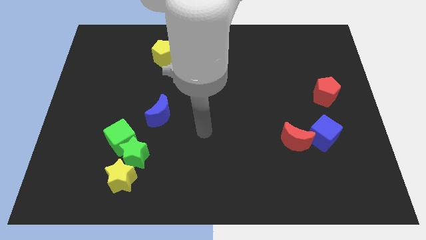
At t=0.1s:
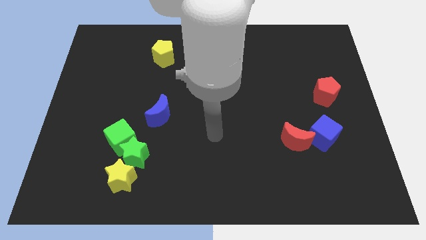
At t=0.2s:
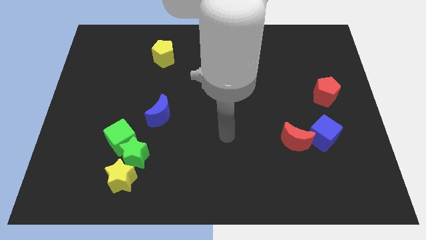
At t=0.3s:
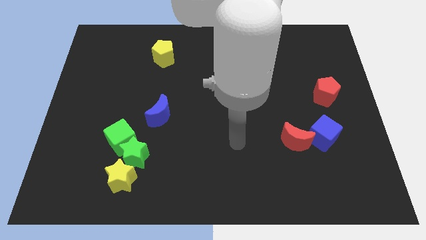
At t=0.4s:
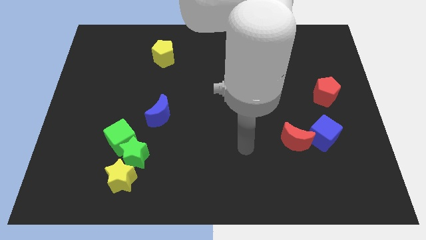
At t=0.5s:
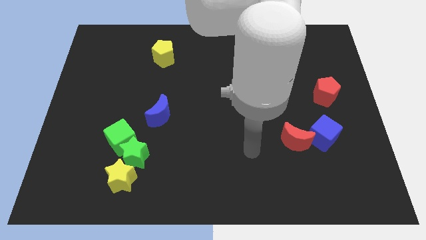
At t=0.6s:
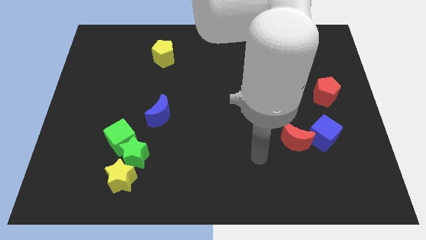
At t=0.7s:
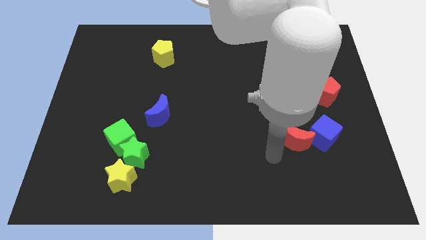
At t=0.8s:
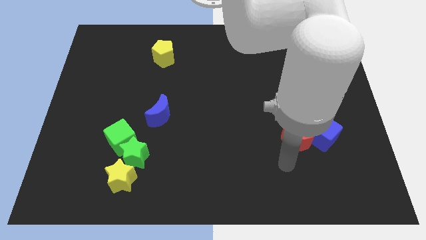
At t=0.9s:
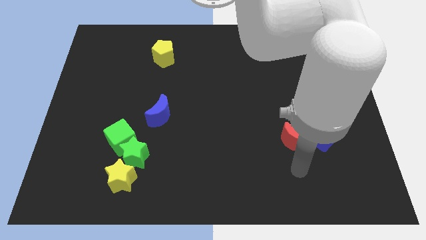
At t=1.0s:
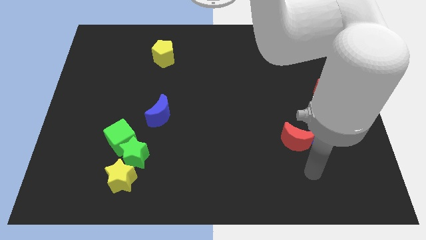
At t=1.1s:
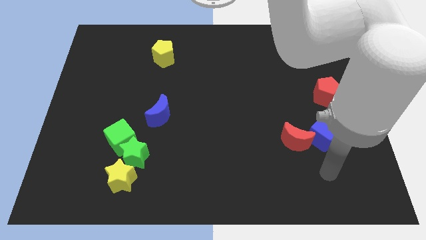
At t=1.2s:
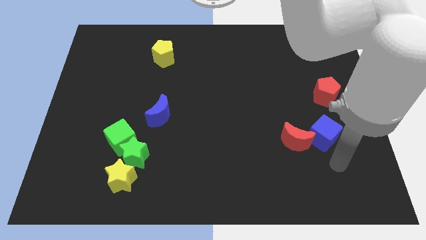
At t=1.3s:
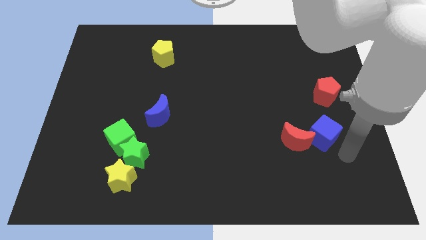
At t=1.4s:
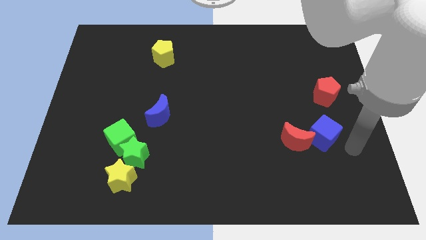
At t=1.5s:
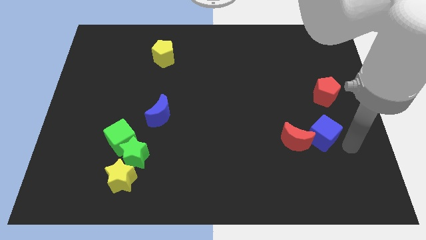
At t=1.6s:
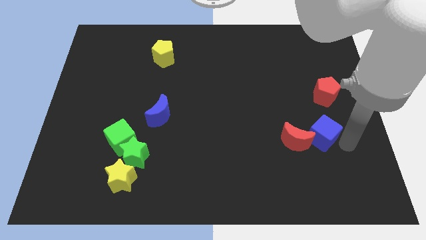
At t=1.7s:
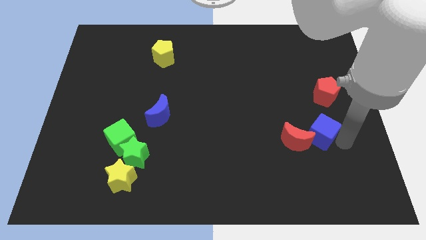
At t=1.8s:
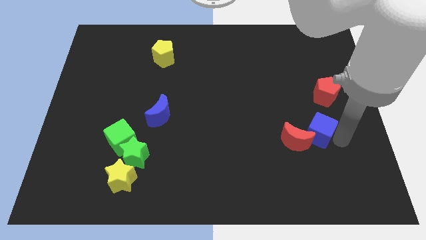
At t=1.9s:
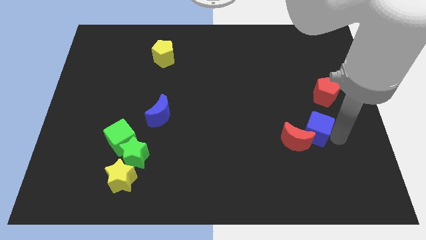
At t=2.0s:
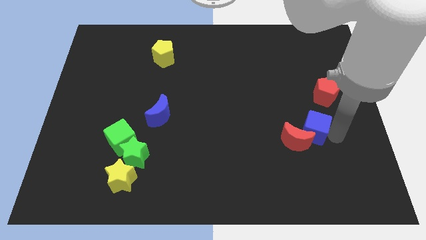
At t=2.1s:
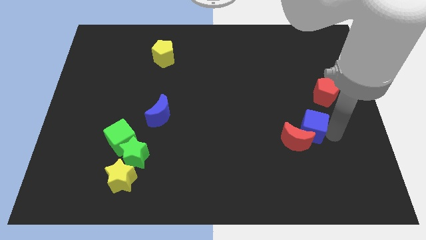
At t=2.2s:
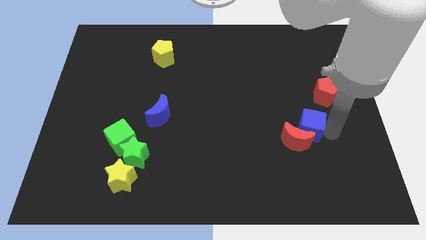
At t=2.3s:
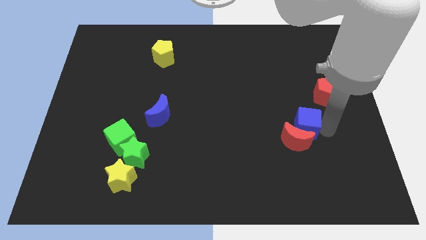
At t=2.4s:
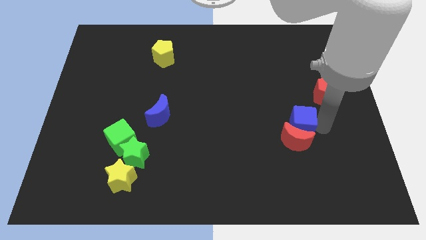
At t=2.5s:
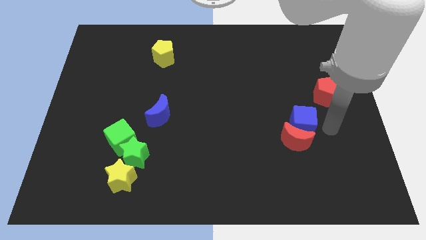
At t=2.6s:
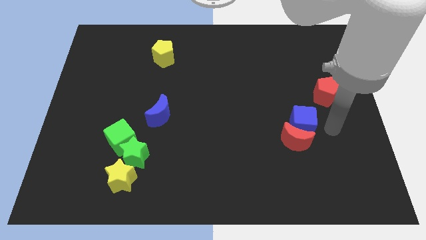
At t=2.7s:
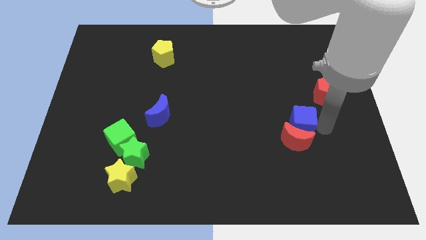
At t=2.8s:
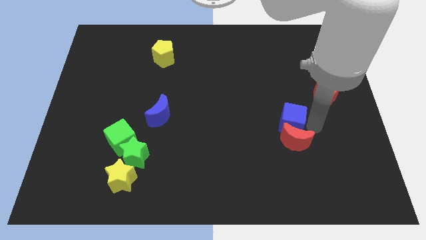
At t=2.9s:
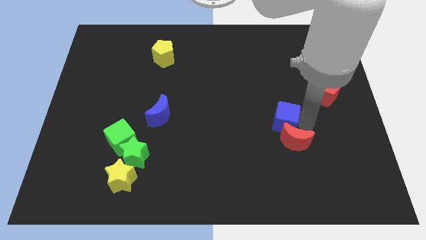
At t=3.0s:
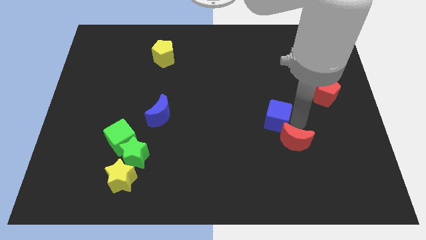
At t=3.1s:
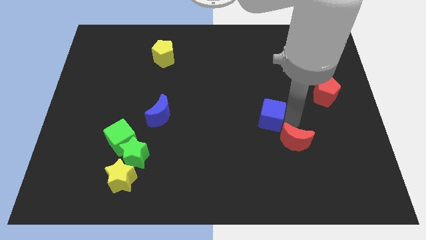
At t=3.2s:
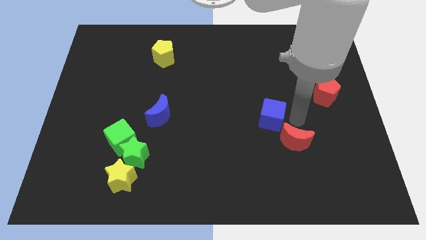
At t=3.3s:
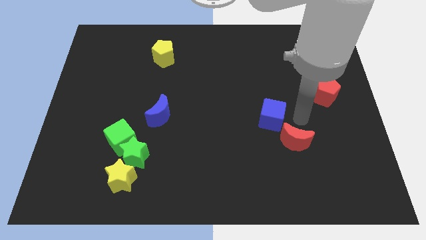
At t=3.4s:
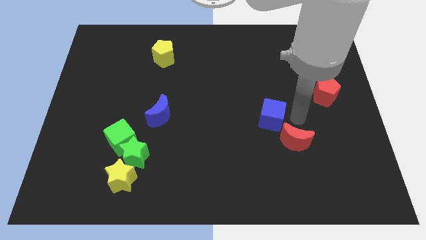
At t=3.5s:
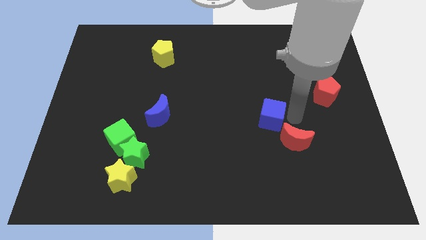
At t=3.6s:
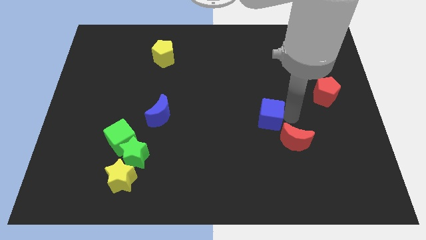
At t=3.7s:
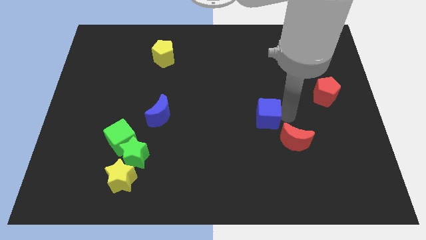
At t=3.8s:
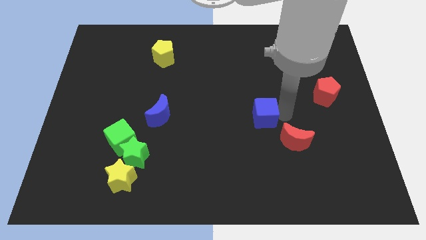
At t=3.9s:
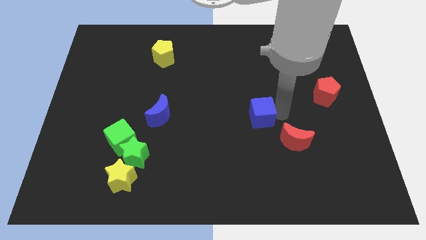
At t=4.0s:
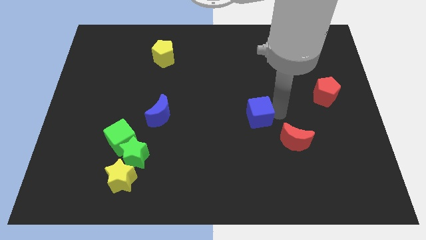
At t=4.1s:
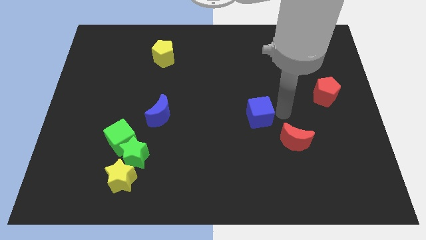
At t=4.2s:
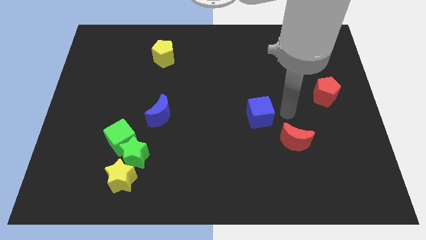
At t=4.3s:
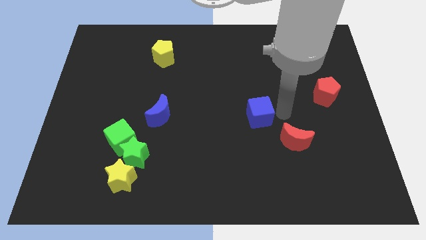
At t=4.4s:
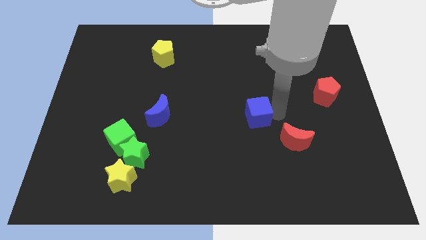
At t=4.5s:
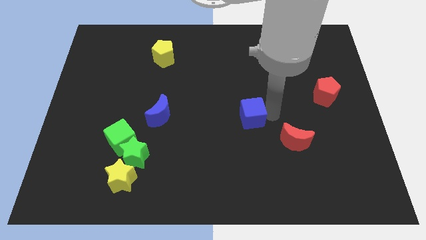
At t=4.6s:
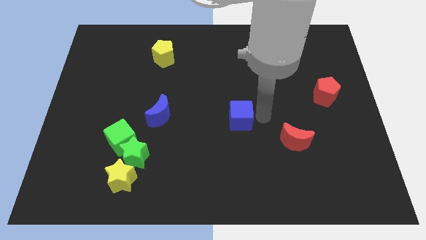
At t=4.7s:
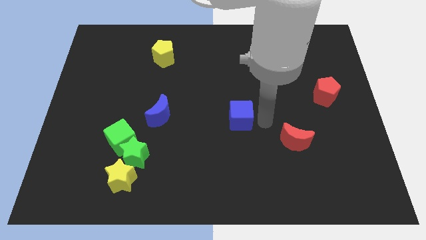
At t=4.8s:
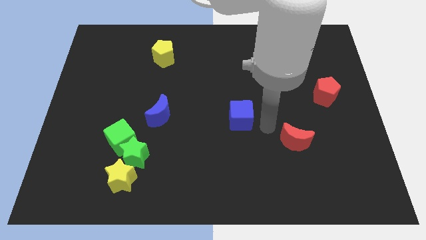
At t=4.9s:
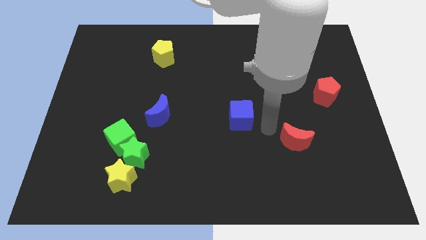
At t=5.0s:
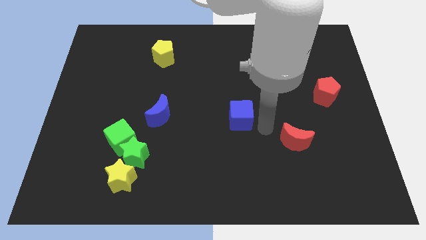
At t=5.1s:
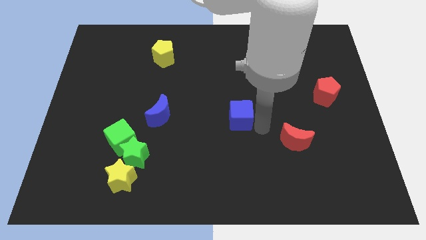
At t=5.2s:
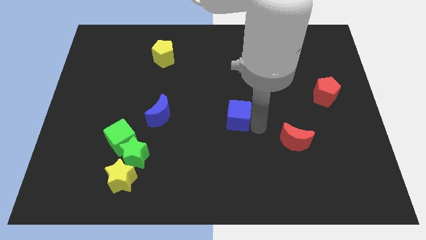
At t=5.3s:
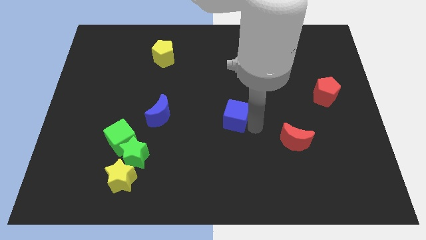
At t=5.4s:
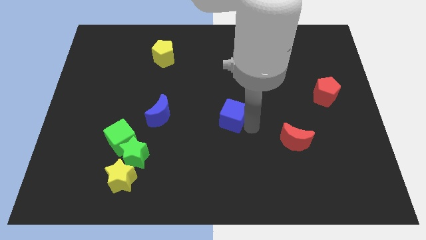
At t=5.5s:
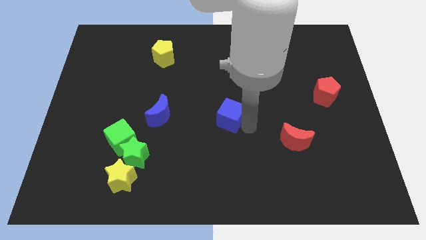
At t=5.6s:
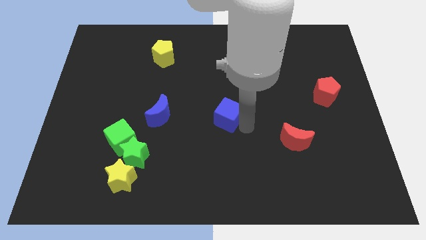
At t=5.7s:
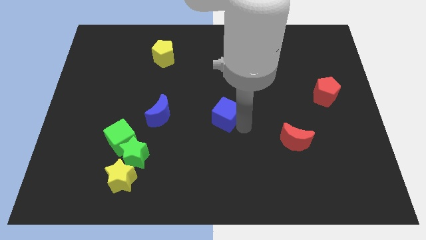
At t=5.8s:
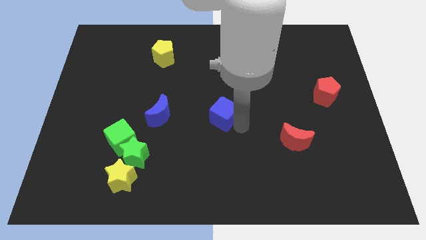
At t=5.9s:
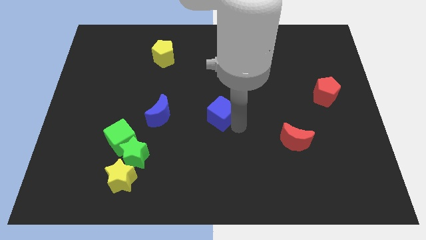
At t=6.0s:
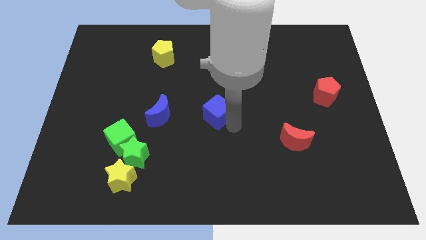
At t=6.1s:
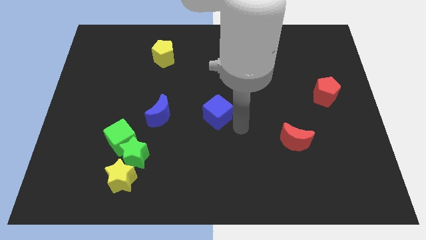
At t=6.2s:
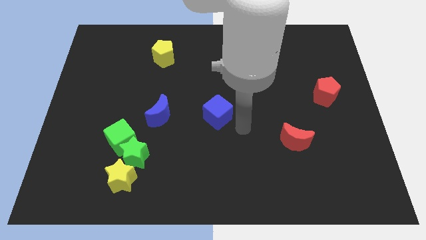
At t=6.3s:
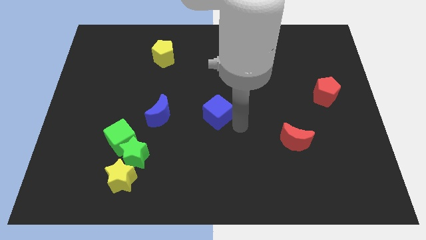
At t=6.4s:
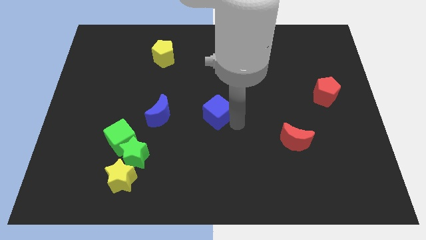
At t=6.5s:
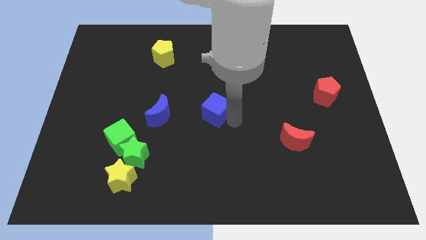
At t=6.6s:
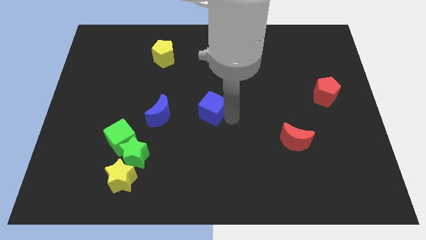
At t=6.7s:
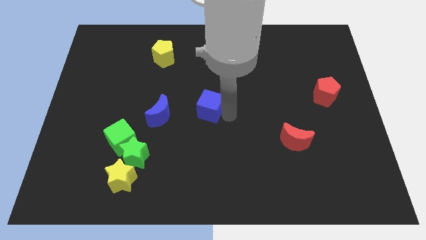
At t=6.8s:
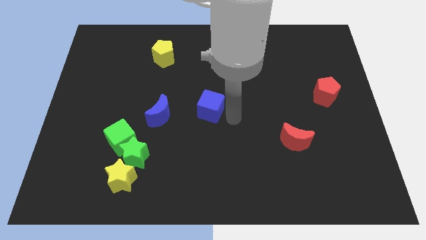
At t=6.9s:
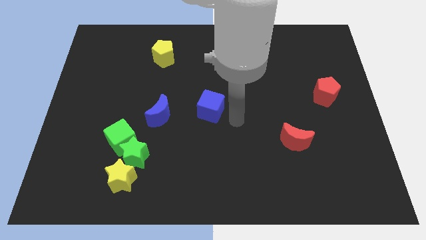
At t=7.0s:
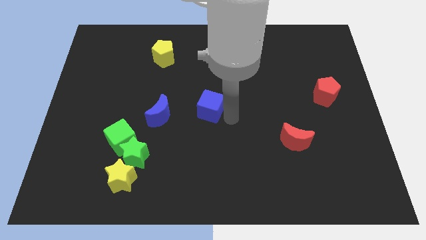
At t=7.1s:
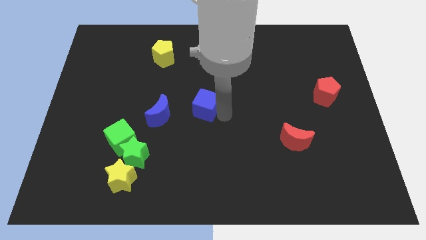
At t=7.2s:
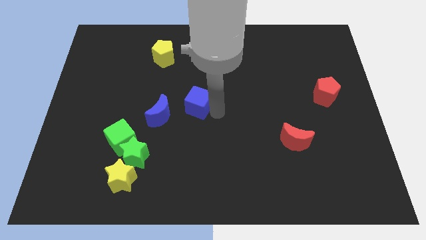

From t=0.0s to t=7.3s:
move the blue cube to the top right of the blue moon
